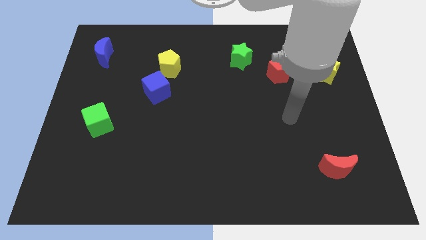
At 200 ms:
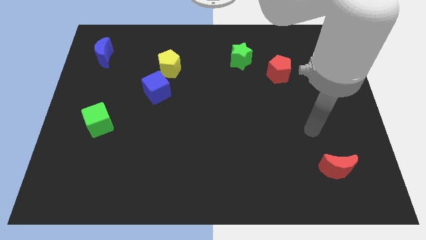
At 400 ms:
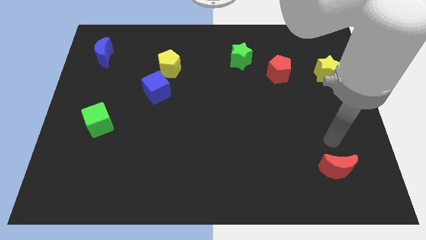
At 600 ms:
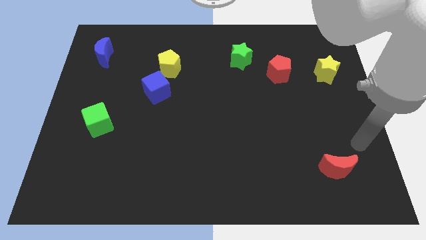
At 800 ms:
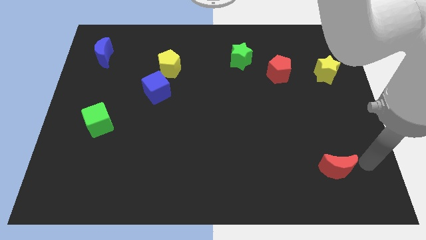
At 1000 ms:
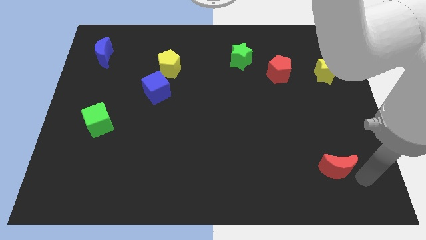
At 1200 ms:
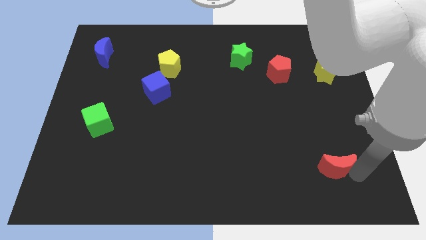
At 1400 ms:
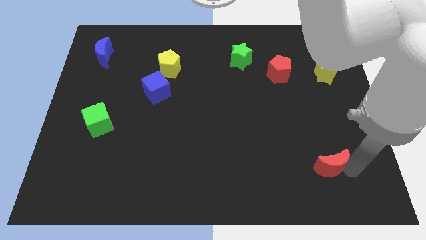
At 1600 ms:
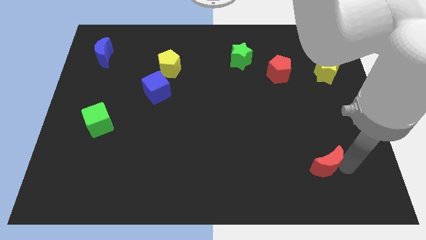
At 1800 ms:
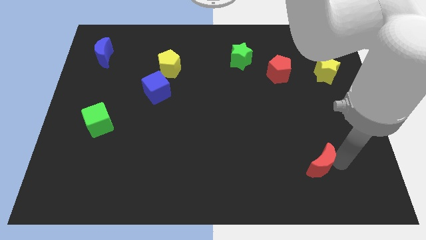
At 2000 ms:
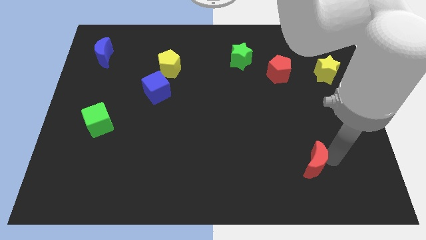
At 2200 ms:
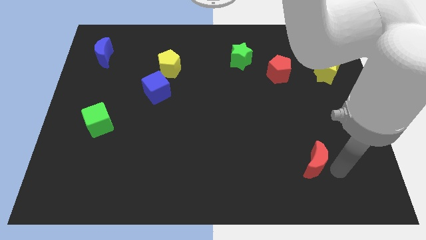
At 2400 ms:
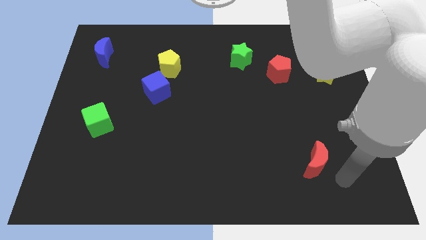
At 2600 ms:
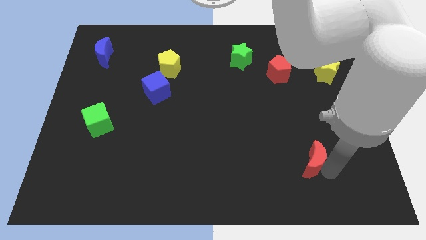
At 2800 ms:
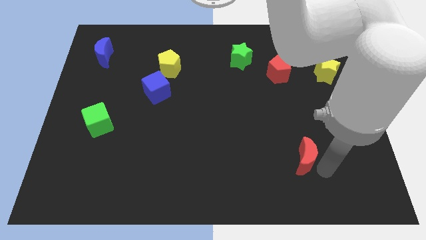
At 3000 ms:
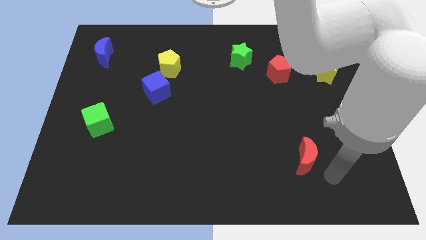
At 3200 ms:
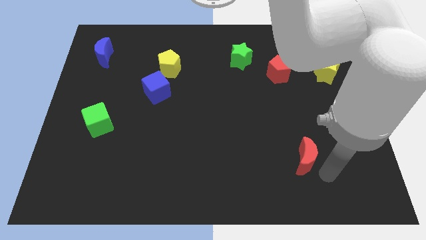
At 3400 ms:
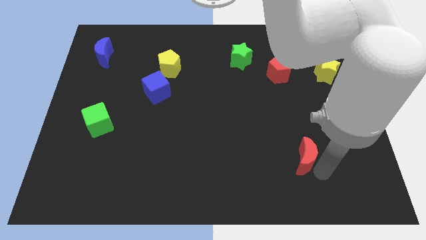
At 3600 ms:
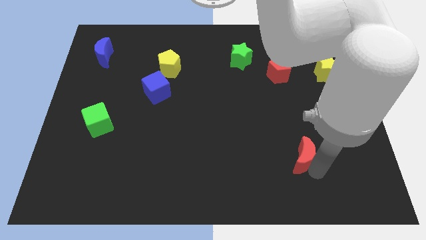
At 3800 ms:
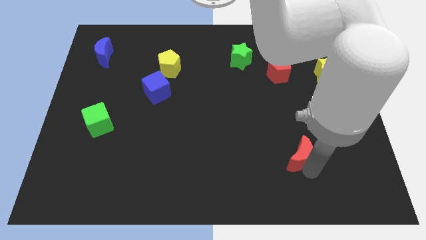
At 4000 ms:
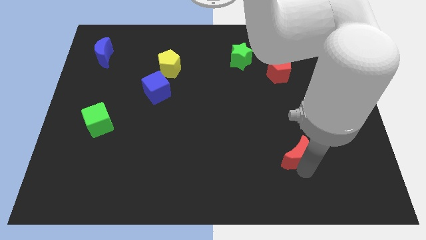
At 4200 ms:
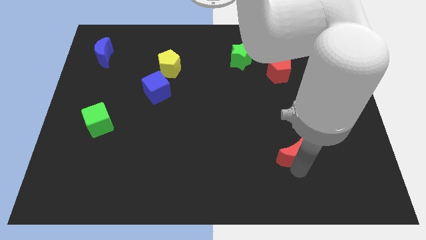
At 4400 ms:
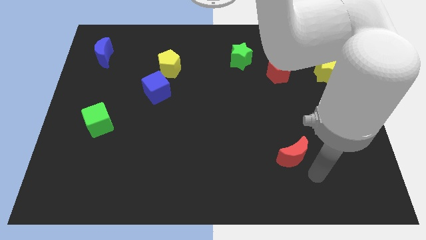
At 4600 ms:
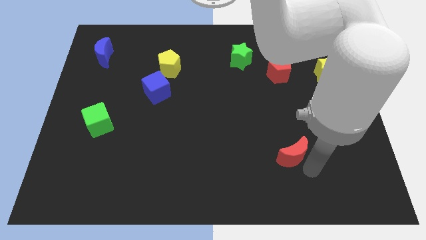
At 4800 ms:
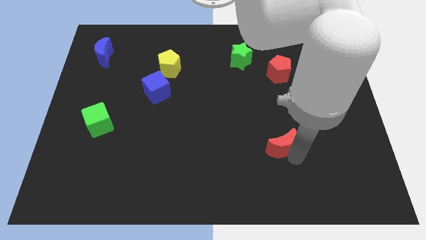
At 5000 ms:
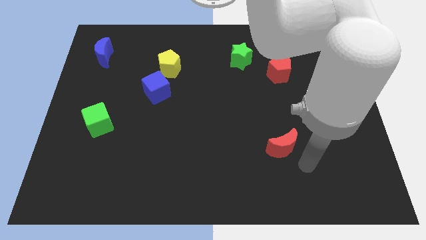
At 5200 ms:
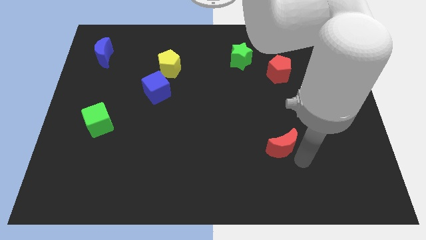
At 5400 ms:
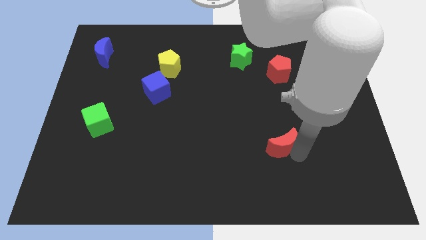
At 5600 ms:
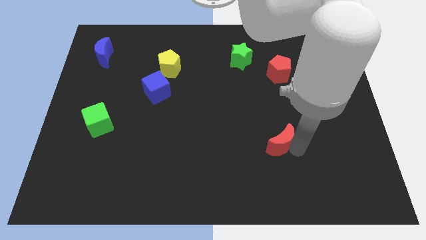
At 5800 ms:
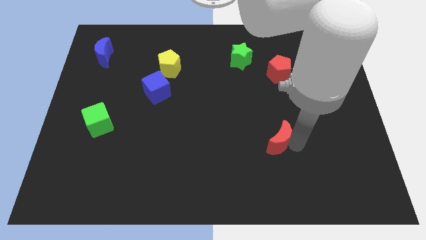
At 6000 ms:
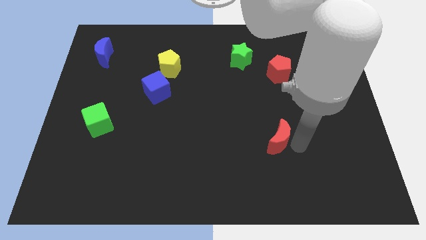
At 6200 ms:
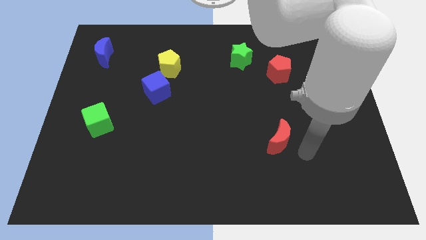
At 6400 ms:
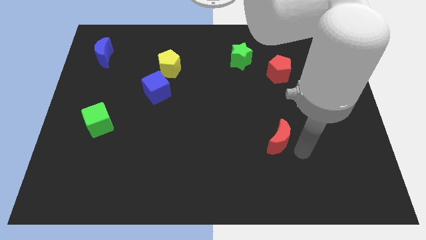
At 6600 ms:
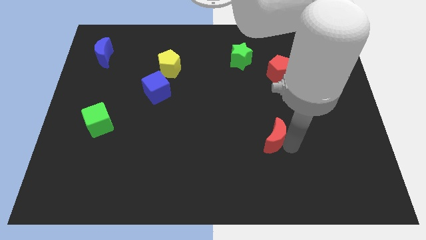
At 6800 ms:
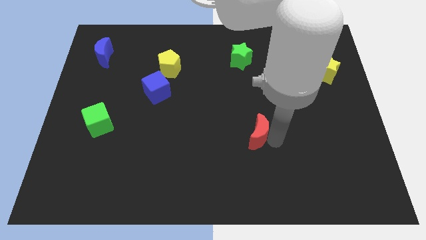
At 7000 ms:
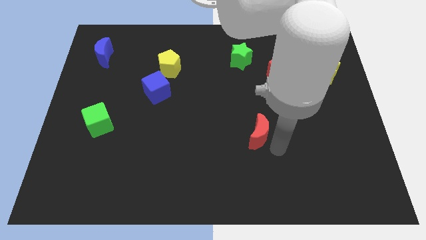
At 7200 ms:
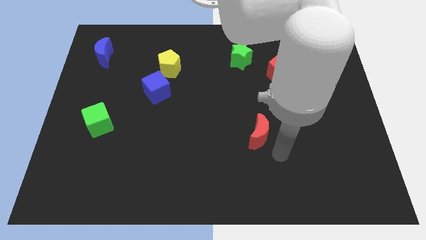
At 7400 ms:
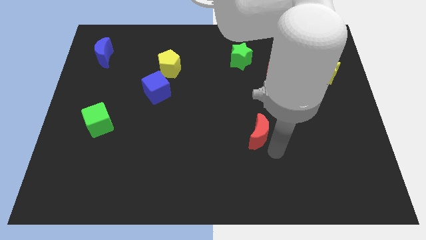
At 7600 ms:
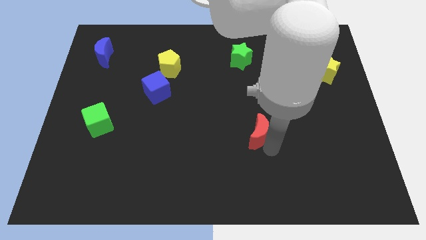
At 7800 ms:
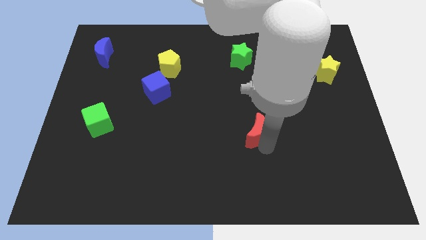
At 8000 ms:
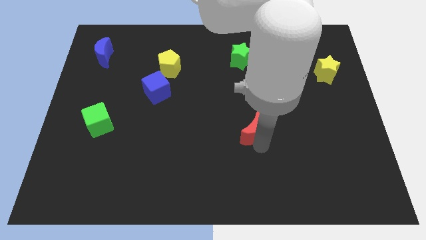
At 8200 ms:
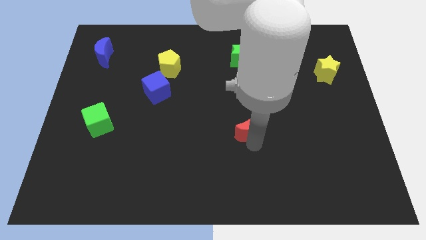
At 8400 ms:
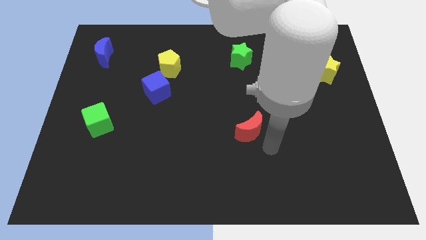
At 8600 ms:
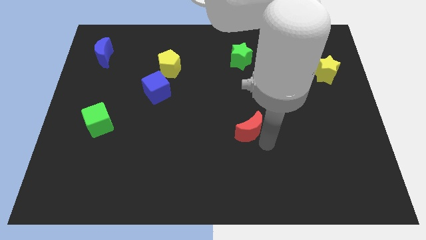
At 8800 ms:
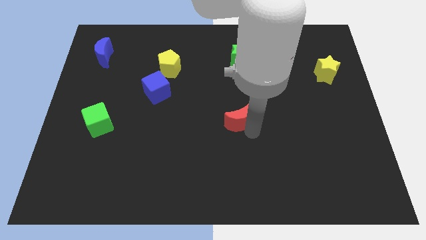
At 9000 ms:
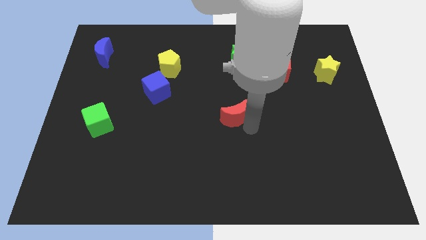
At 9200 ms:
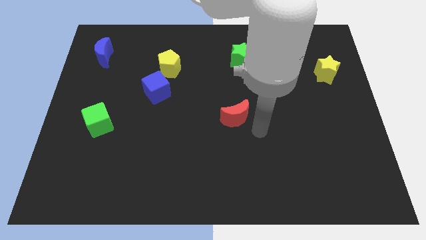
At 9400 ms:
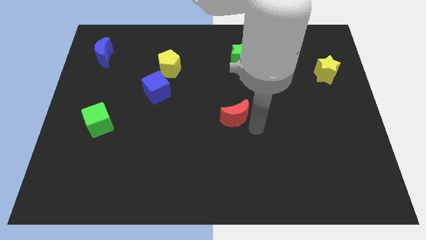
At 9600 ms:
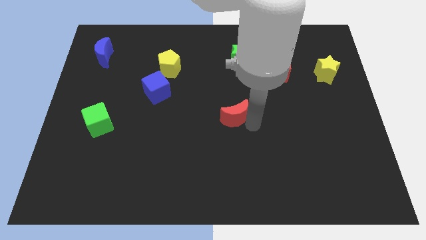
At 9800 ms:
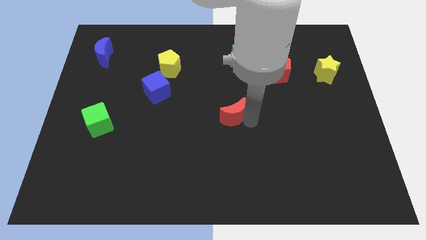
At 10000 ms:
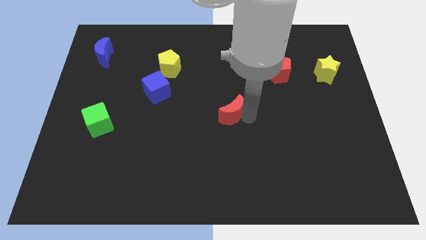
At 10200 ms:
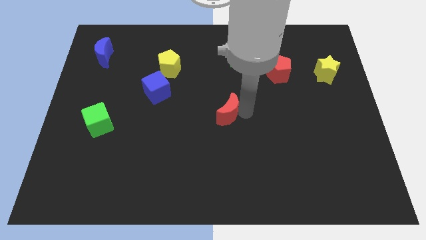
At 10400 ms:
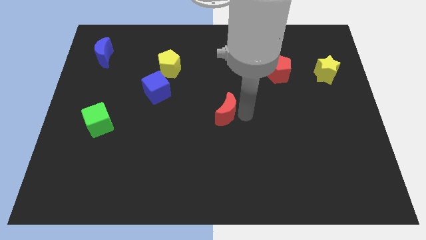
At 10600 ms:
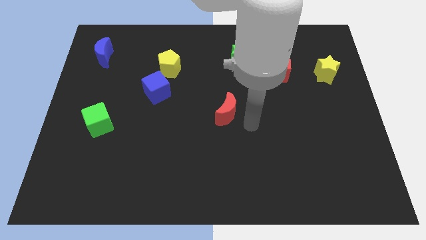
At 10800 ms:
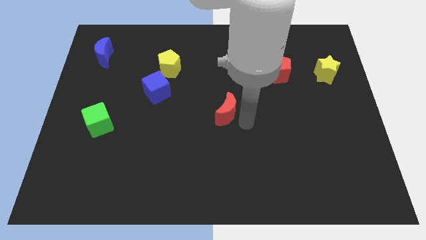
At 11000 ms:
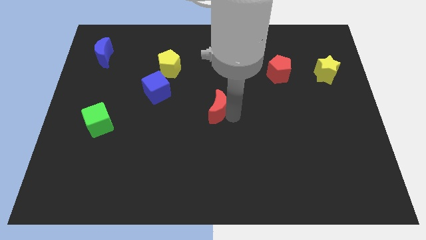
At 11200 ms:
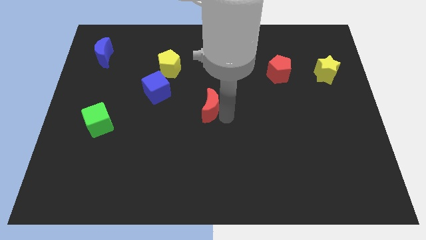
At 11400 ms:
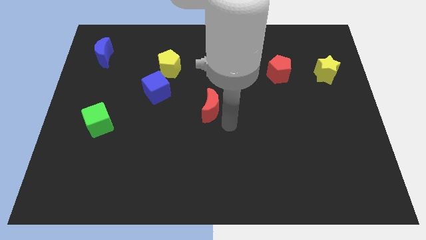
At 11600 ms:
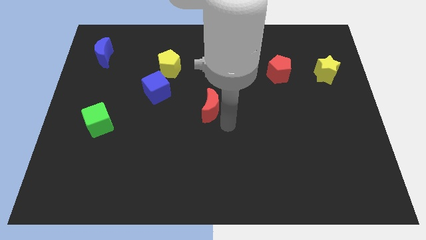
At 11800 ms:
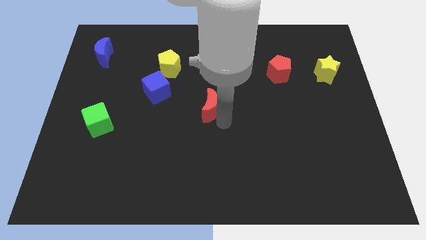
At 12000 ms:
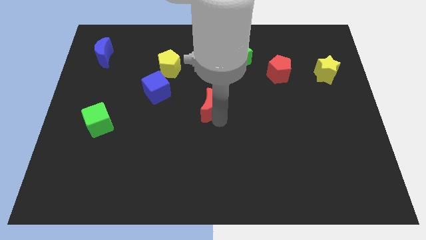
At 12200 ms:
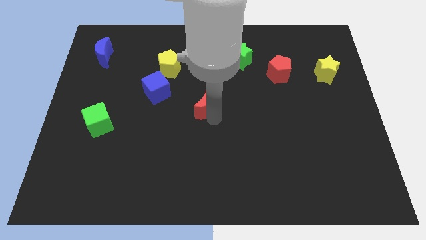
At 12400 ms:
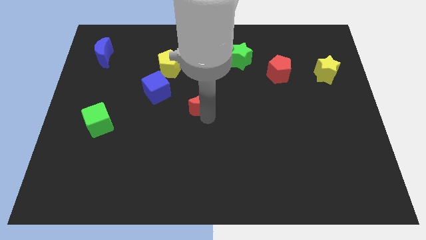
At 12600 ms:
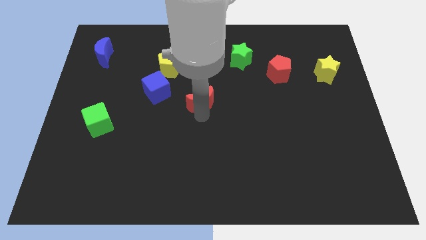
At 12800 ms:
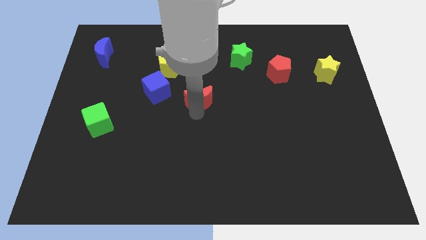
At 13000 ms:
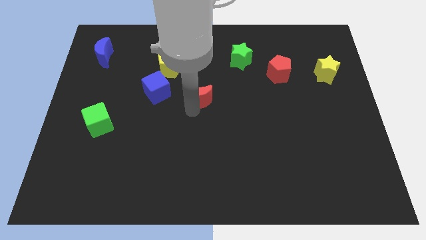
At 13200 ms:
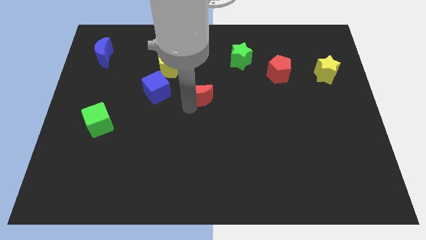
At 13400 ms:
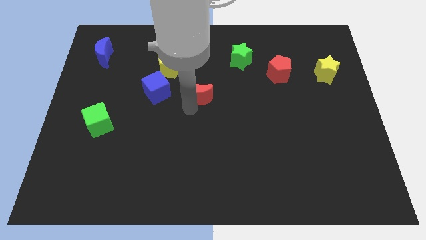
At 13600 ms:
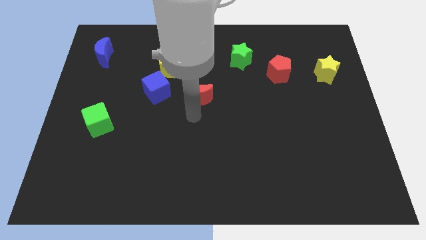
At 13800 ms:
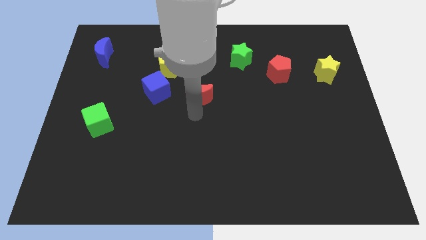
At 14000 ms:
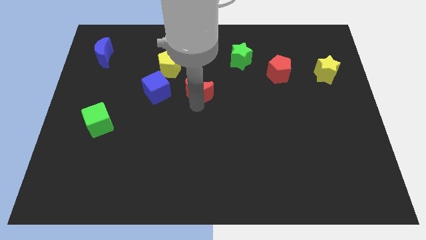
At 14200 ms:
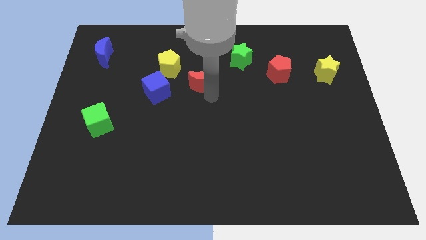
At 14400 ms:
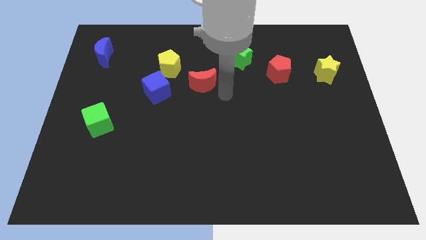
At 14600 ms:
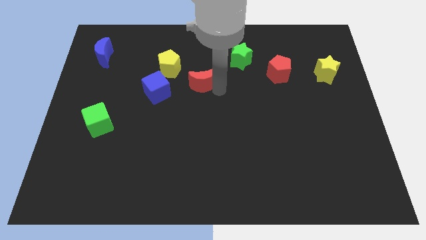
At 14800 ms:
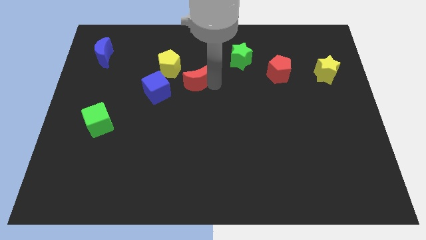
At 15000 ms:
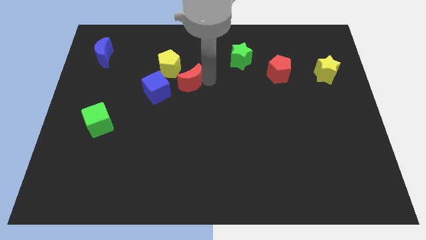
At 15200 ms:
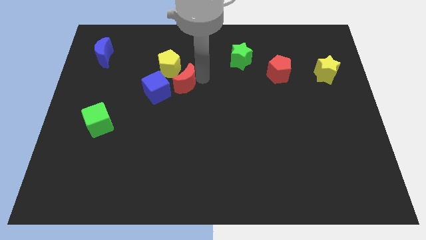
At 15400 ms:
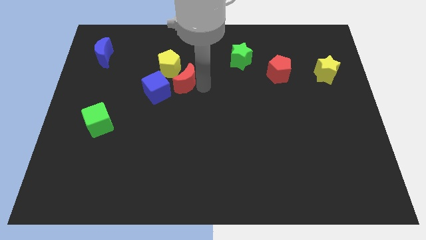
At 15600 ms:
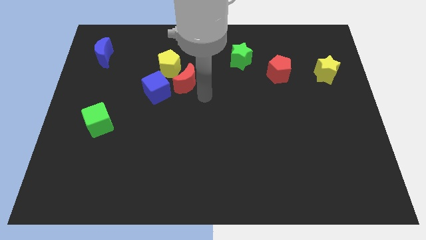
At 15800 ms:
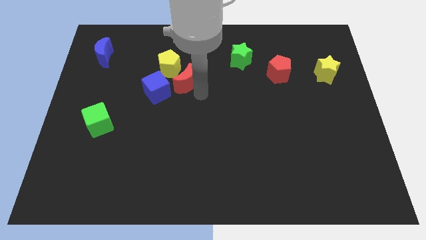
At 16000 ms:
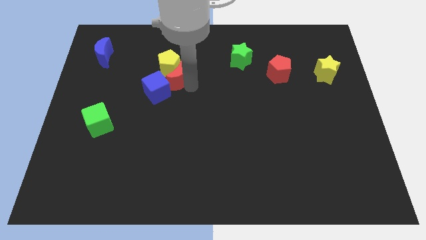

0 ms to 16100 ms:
slide the red moon towards the yellow pentagon
